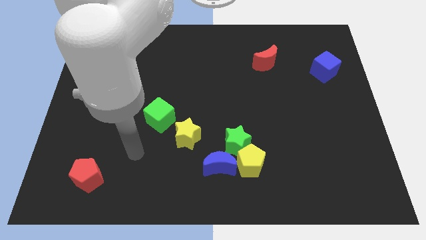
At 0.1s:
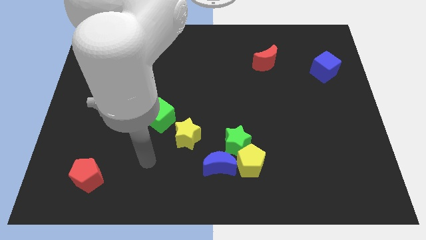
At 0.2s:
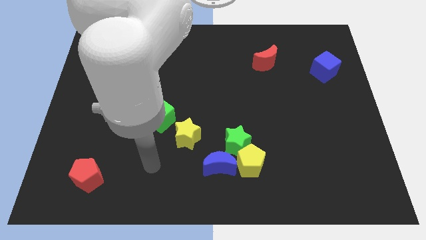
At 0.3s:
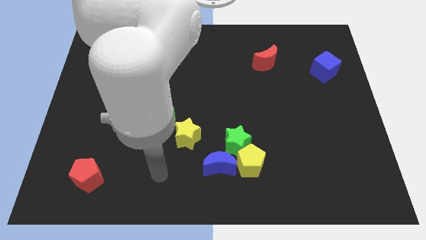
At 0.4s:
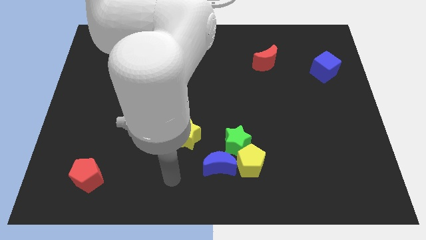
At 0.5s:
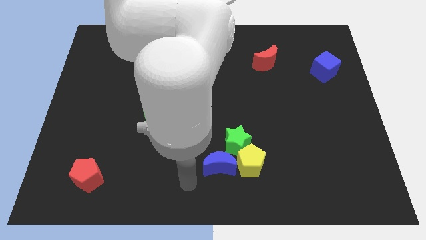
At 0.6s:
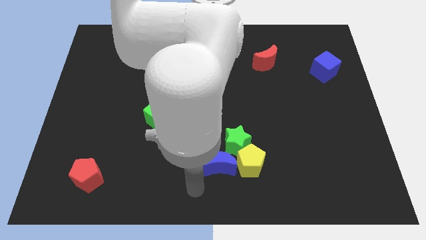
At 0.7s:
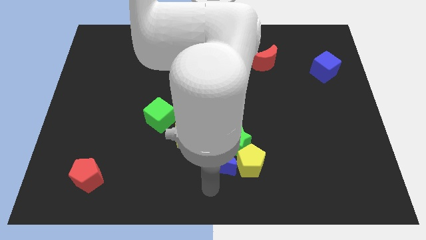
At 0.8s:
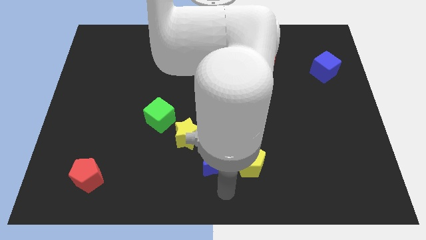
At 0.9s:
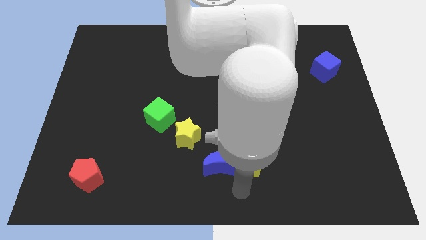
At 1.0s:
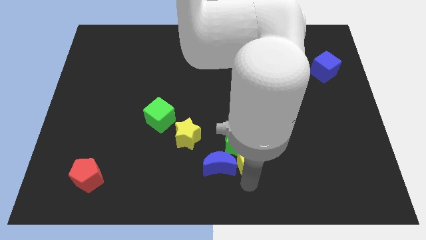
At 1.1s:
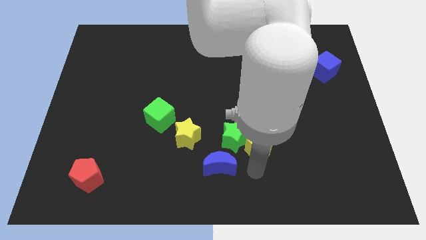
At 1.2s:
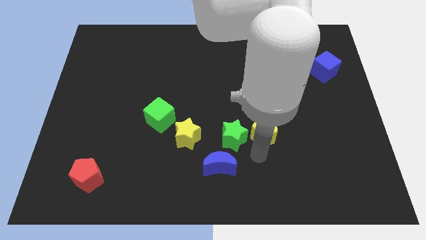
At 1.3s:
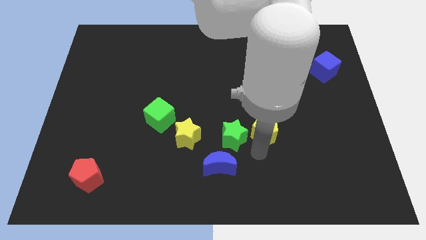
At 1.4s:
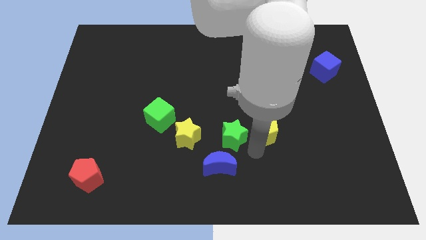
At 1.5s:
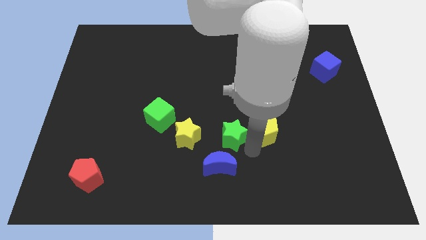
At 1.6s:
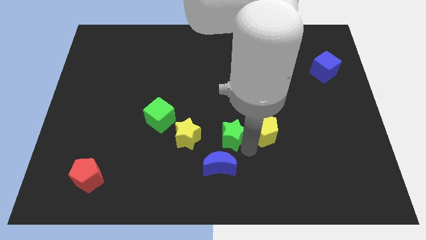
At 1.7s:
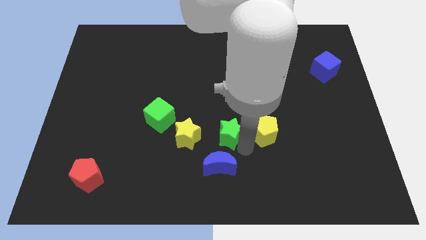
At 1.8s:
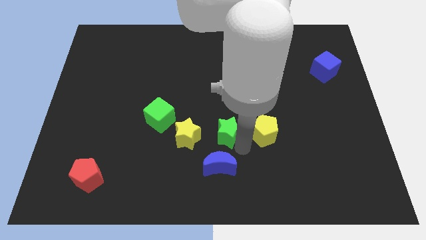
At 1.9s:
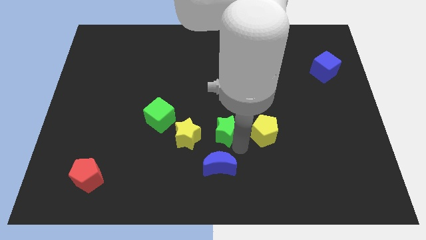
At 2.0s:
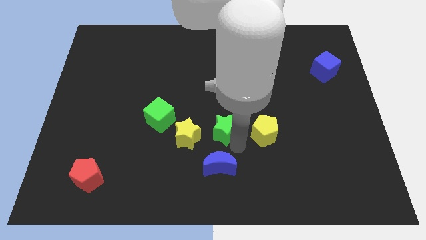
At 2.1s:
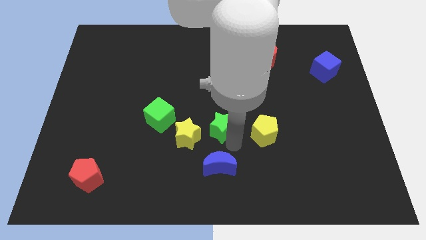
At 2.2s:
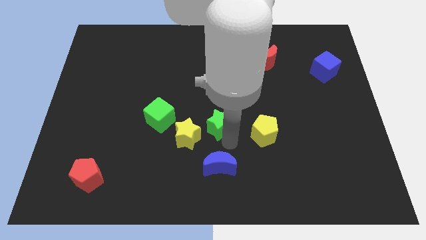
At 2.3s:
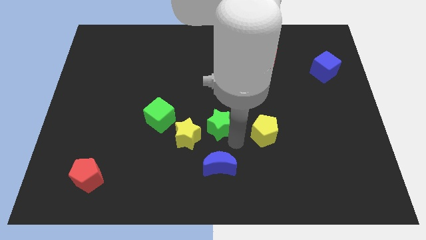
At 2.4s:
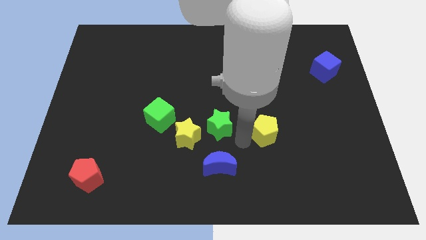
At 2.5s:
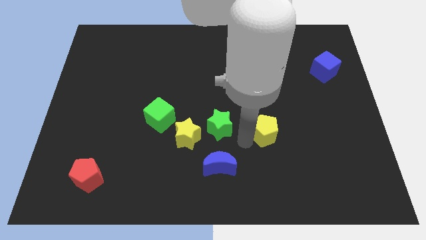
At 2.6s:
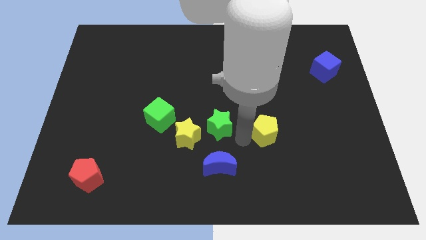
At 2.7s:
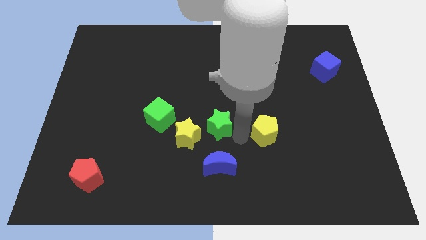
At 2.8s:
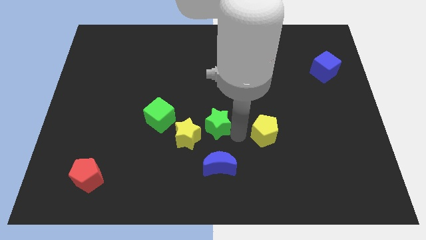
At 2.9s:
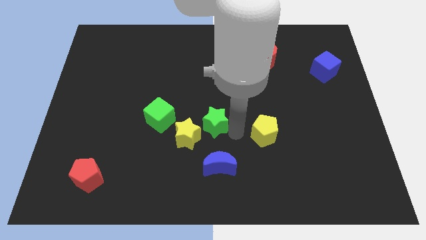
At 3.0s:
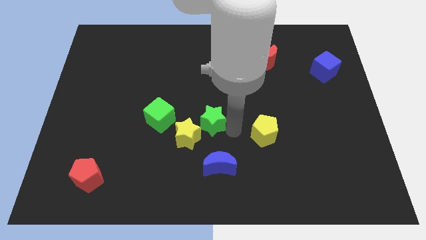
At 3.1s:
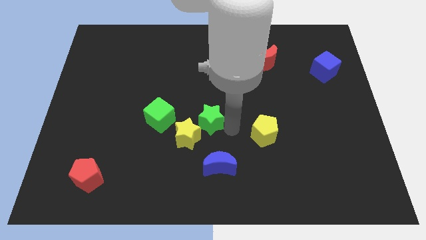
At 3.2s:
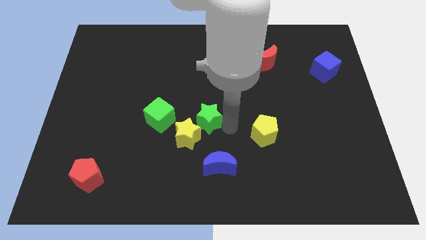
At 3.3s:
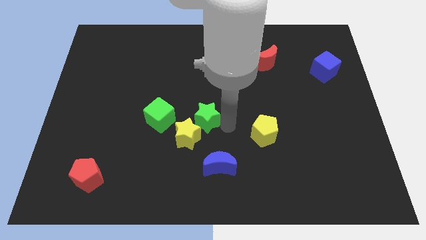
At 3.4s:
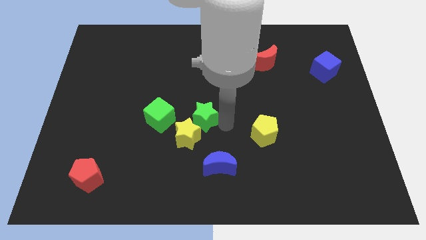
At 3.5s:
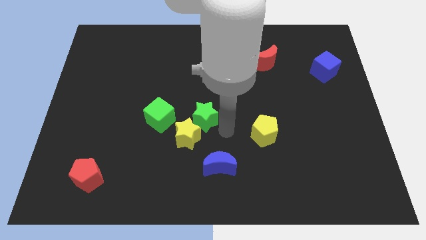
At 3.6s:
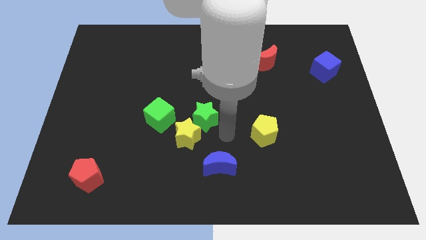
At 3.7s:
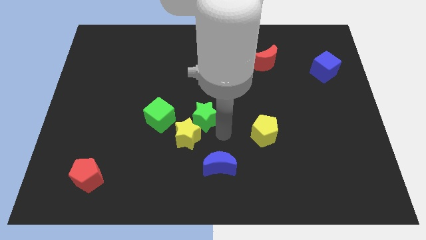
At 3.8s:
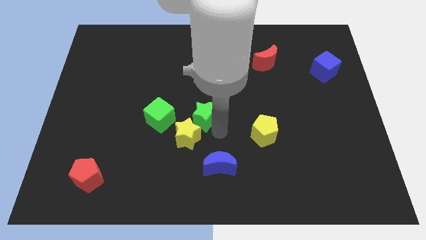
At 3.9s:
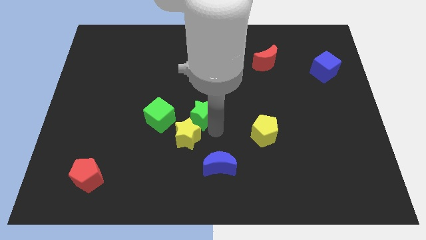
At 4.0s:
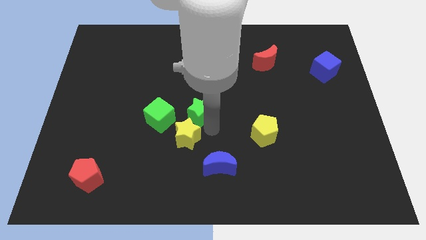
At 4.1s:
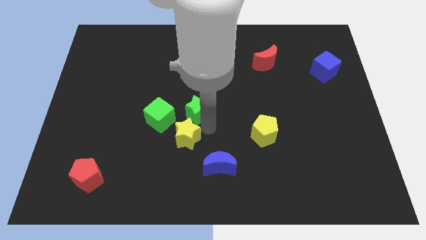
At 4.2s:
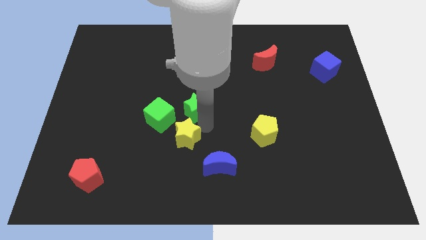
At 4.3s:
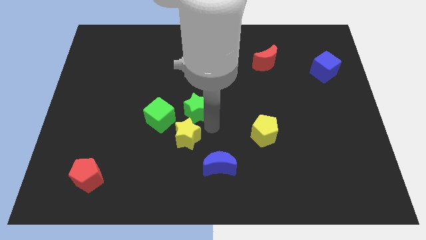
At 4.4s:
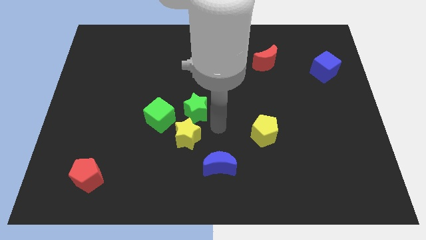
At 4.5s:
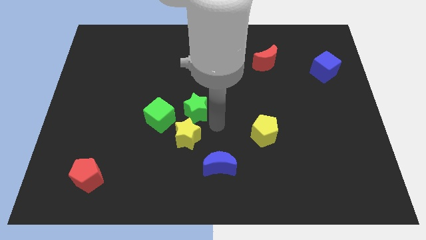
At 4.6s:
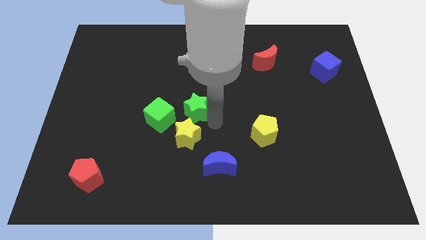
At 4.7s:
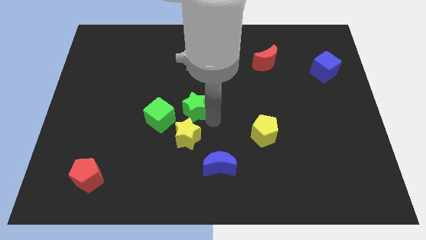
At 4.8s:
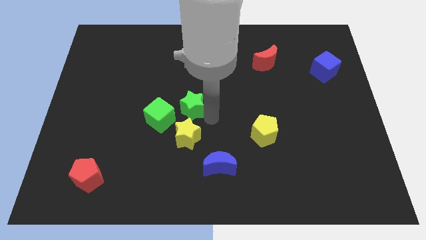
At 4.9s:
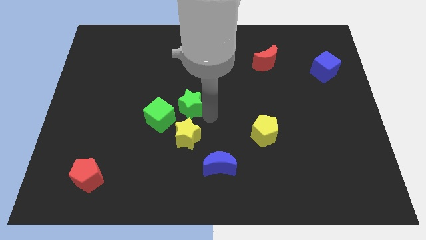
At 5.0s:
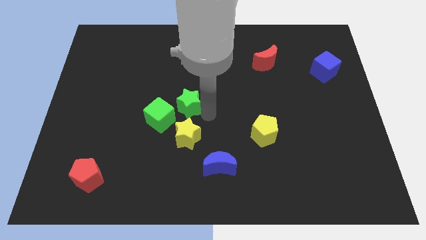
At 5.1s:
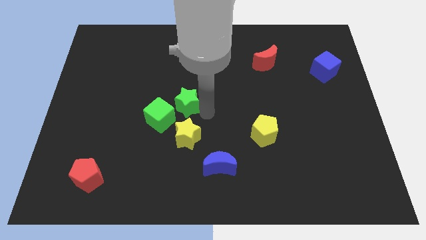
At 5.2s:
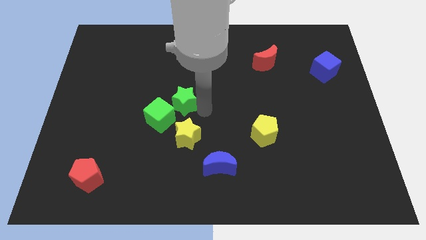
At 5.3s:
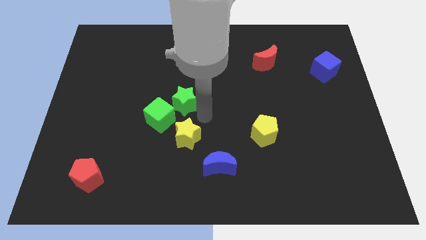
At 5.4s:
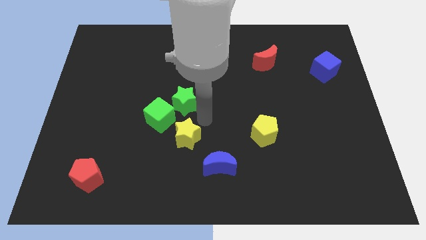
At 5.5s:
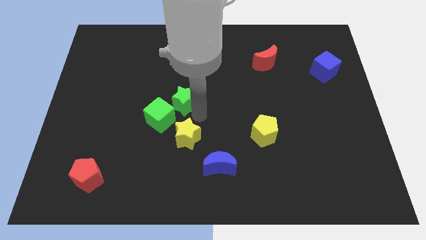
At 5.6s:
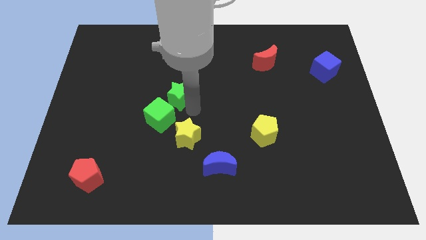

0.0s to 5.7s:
put the green star above the green cube
